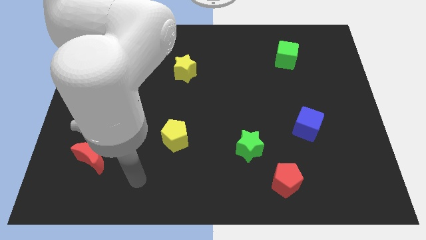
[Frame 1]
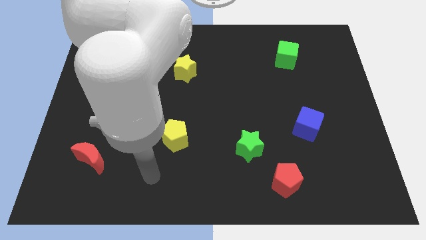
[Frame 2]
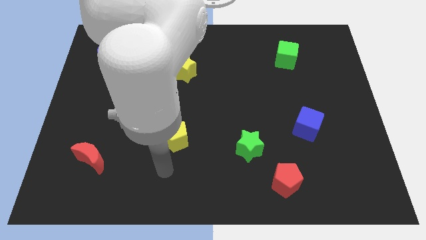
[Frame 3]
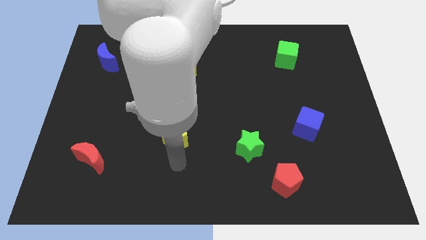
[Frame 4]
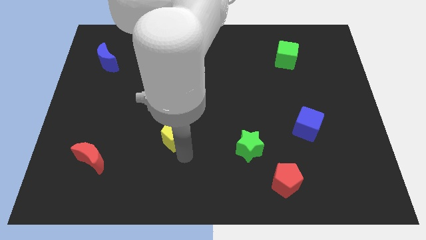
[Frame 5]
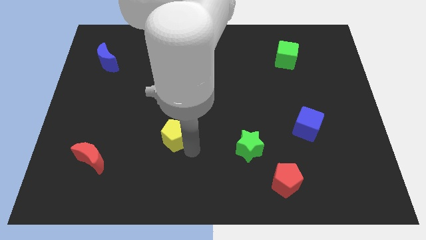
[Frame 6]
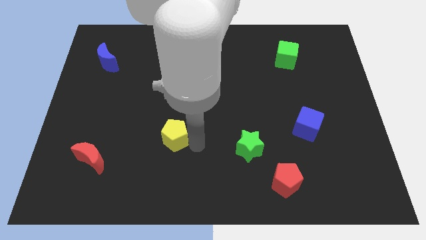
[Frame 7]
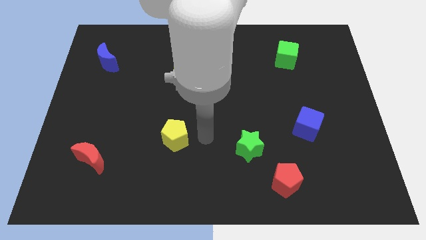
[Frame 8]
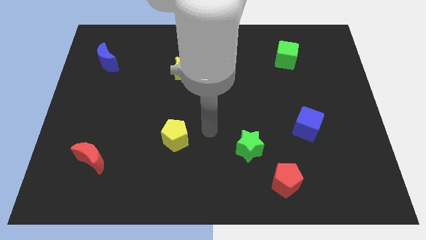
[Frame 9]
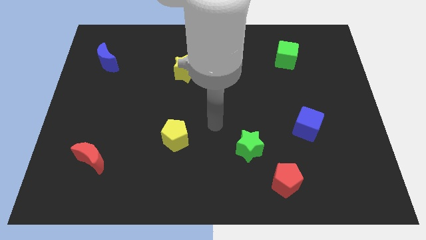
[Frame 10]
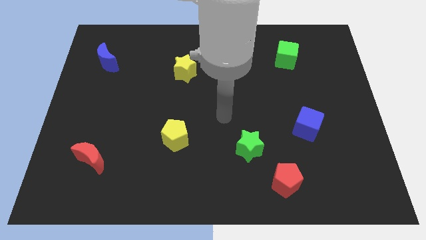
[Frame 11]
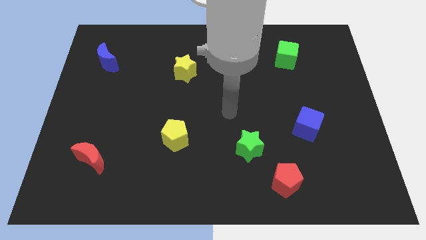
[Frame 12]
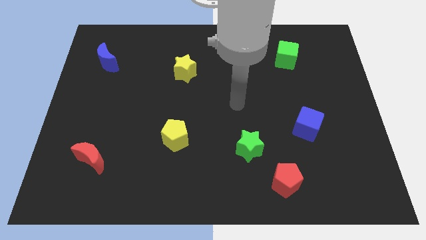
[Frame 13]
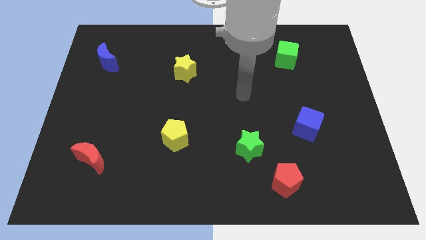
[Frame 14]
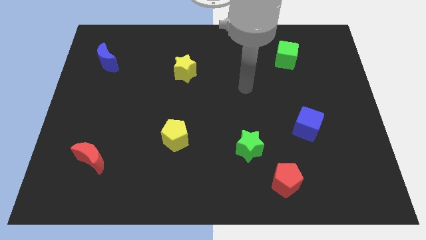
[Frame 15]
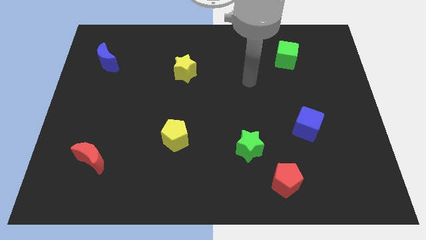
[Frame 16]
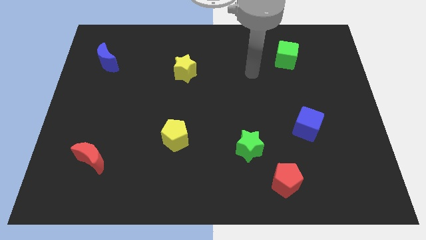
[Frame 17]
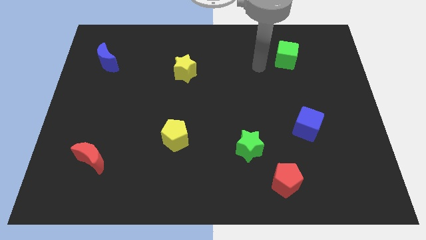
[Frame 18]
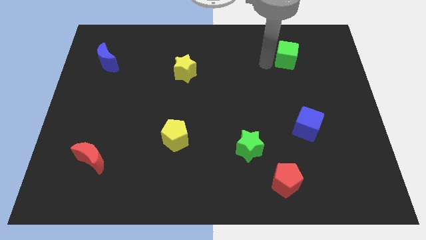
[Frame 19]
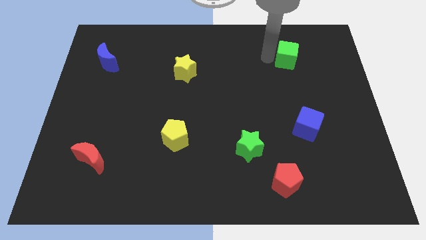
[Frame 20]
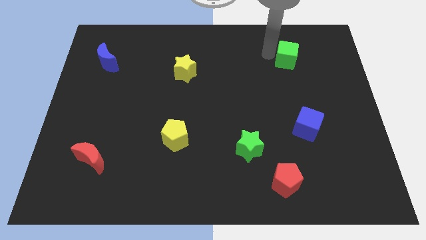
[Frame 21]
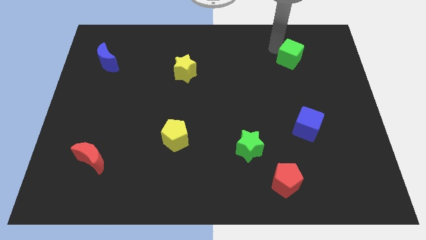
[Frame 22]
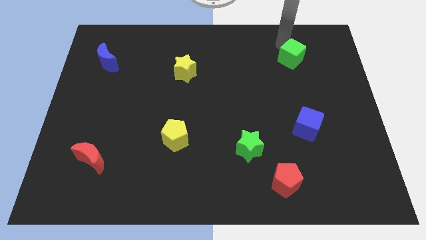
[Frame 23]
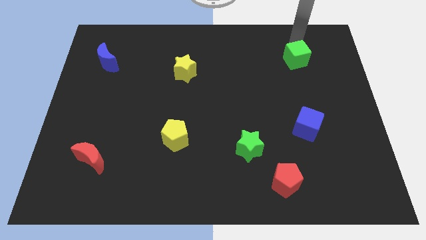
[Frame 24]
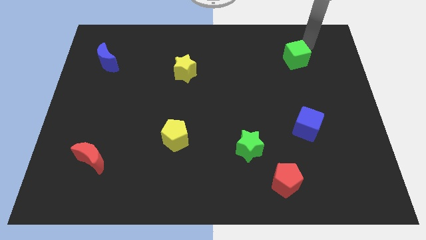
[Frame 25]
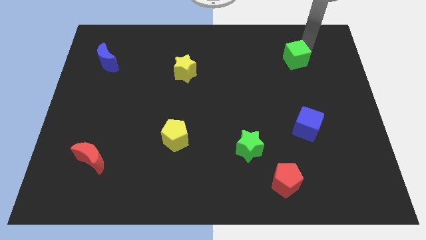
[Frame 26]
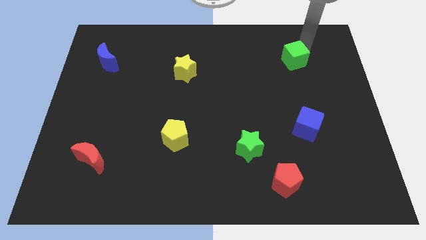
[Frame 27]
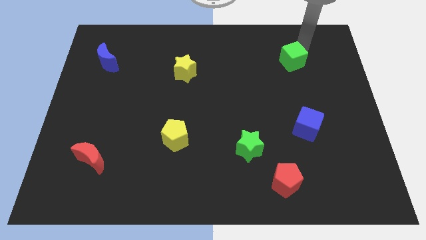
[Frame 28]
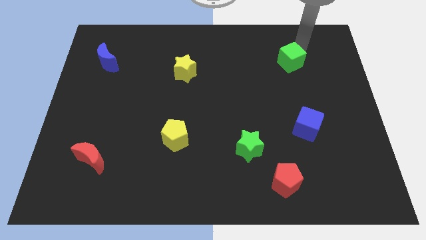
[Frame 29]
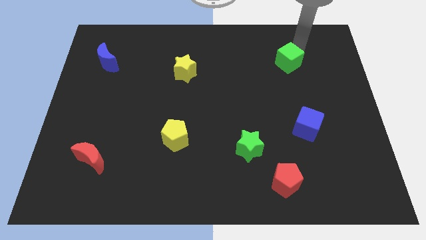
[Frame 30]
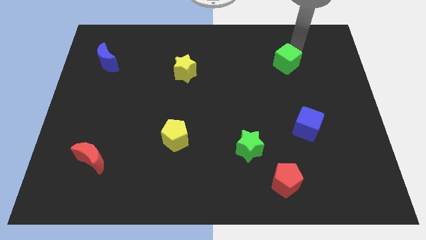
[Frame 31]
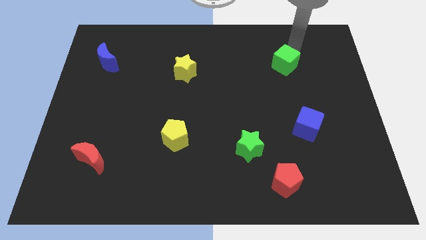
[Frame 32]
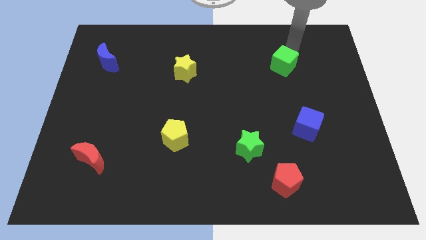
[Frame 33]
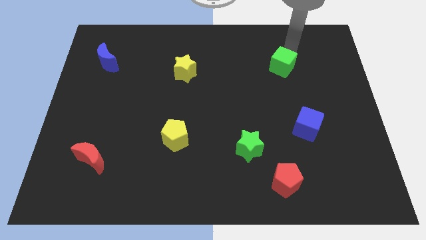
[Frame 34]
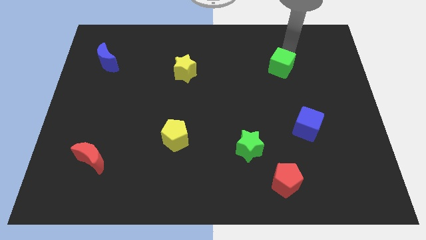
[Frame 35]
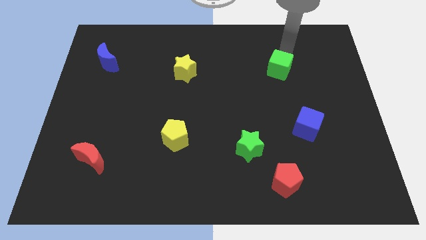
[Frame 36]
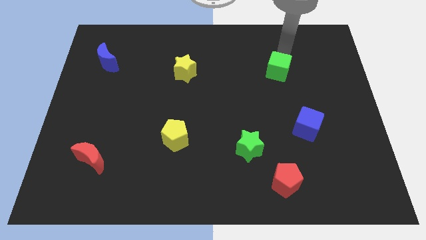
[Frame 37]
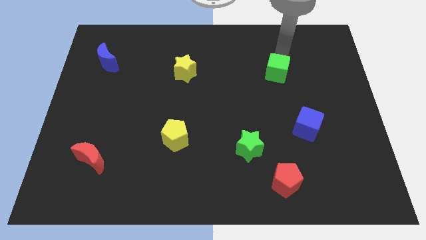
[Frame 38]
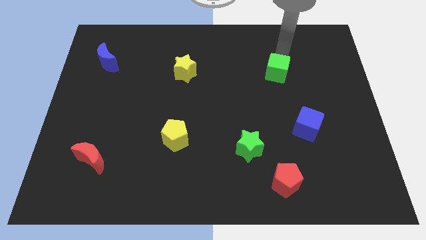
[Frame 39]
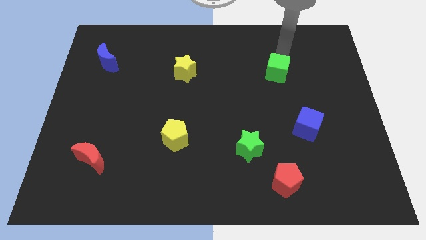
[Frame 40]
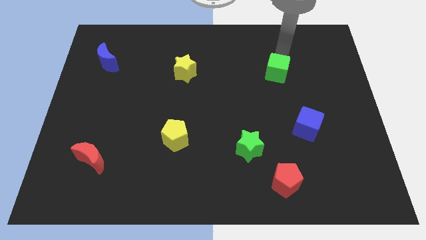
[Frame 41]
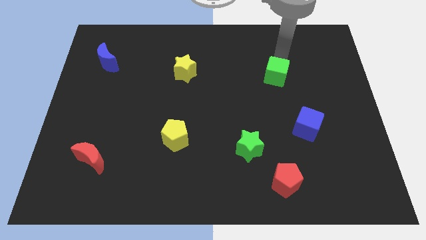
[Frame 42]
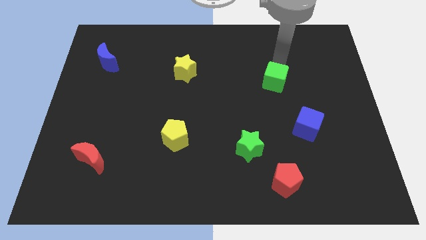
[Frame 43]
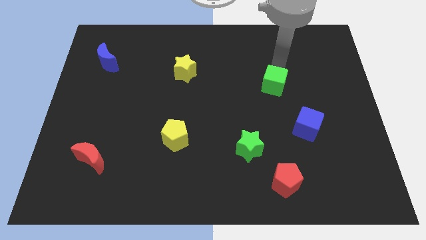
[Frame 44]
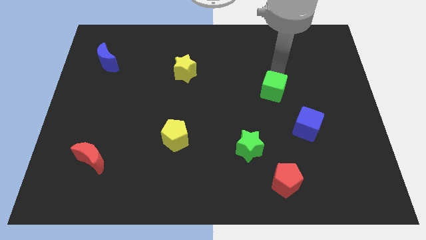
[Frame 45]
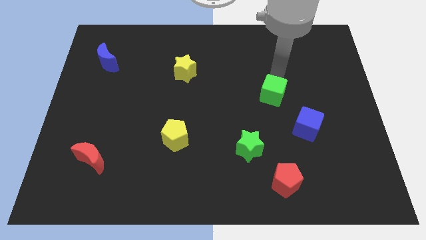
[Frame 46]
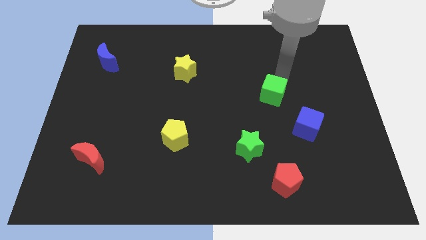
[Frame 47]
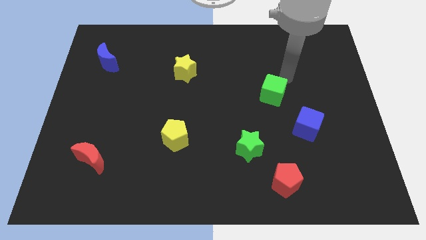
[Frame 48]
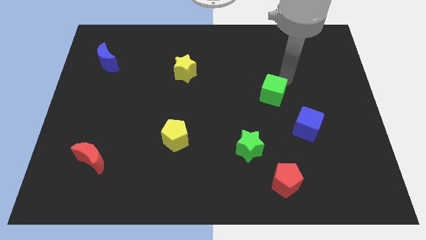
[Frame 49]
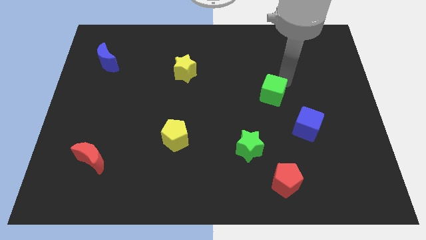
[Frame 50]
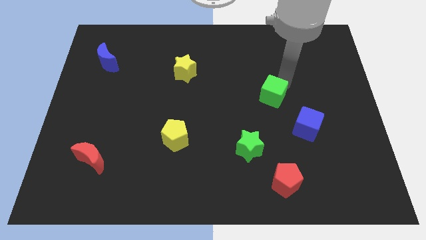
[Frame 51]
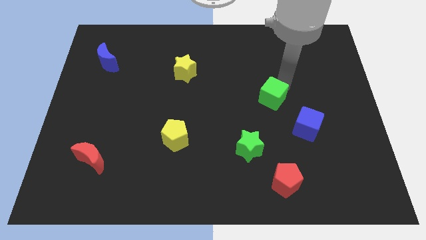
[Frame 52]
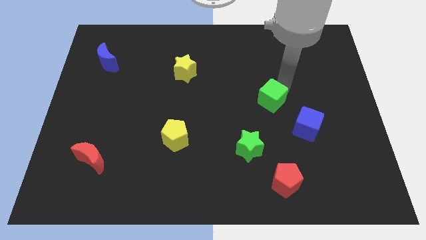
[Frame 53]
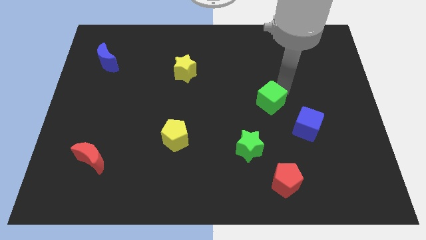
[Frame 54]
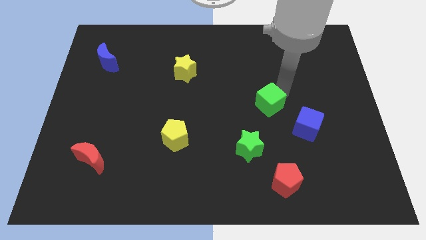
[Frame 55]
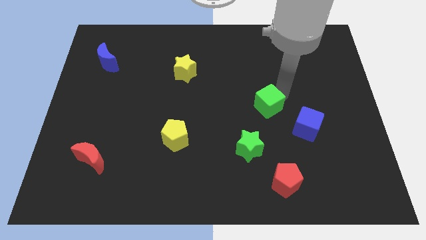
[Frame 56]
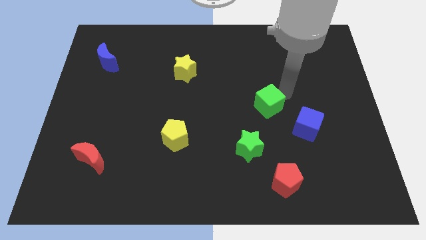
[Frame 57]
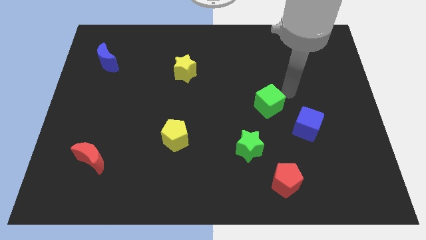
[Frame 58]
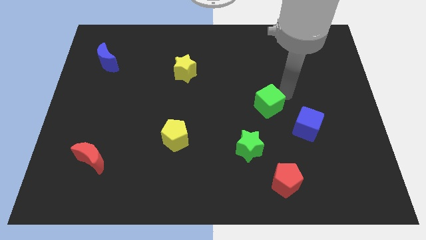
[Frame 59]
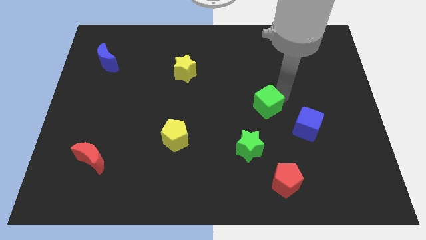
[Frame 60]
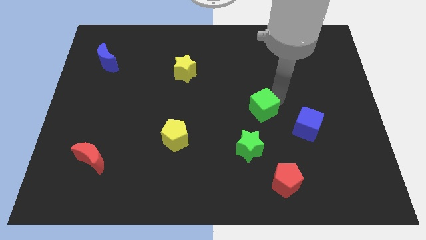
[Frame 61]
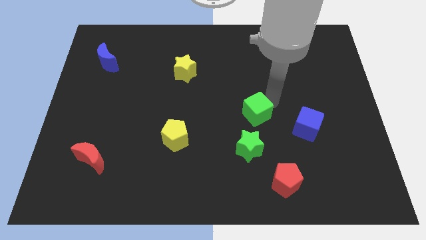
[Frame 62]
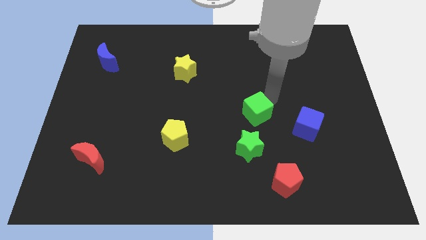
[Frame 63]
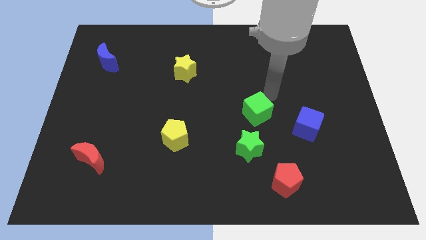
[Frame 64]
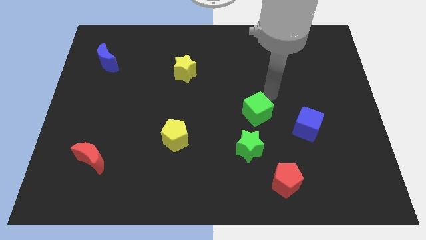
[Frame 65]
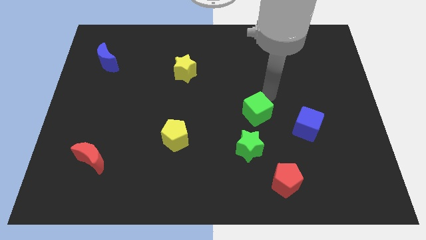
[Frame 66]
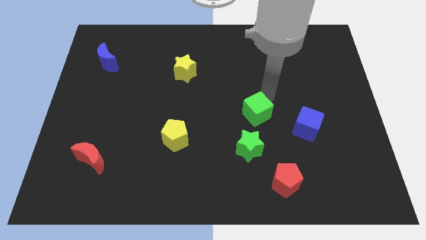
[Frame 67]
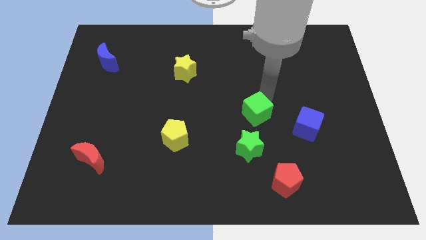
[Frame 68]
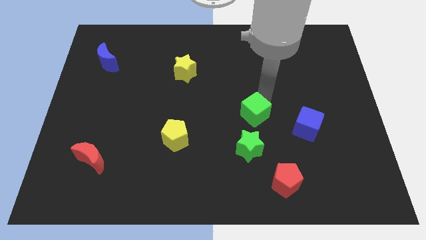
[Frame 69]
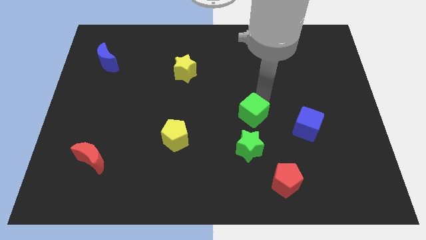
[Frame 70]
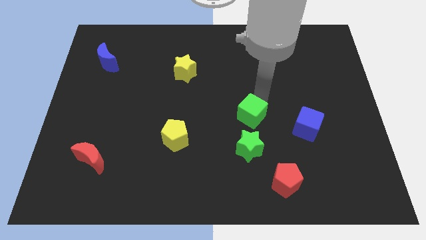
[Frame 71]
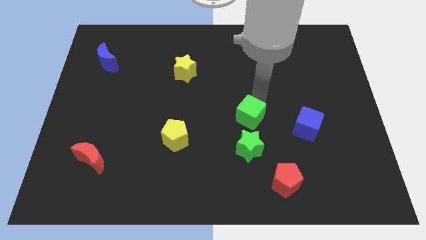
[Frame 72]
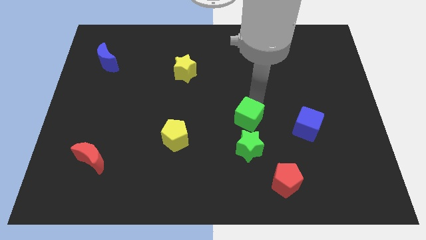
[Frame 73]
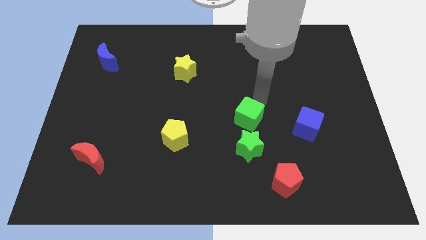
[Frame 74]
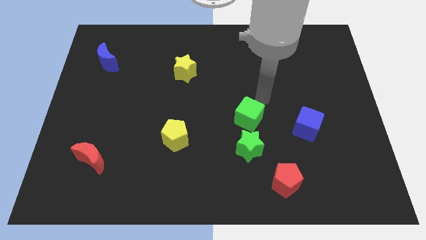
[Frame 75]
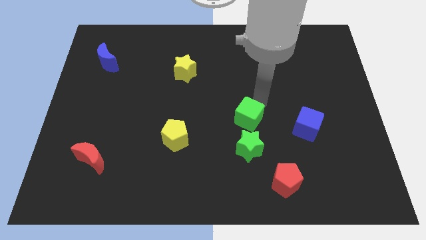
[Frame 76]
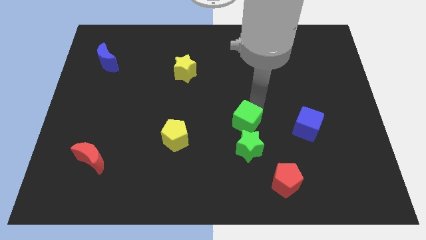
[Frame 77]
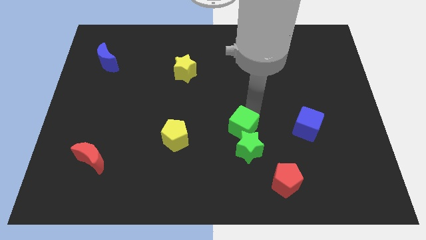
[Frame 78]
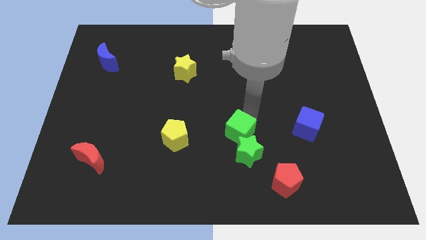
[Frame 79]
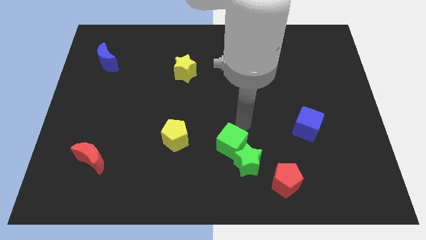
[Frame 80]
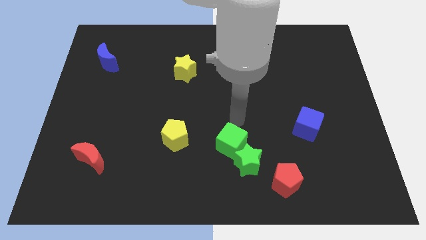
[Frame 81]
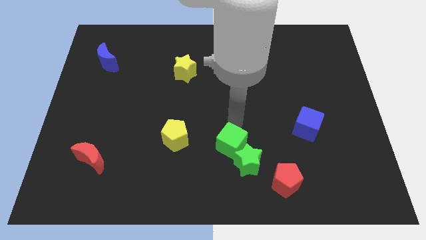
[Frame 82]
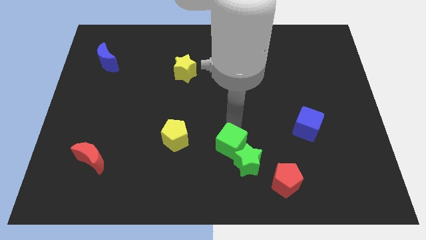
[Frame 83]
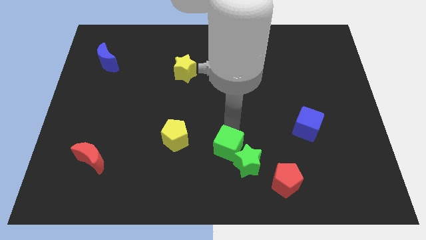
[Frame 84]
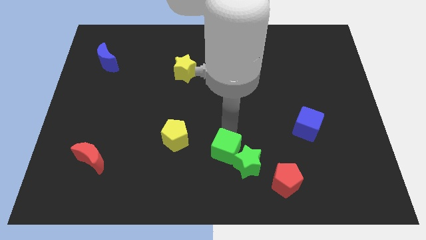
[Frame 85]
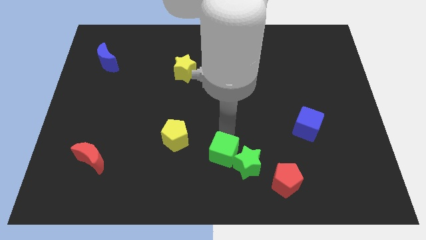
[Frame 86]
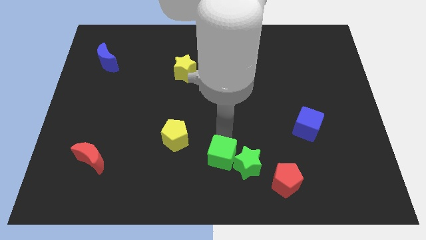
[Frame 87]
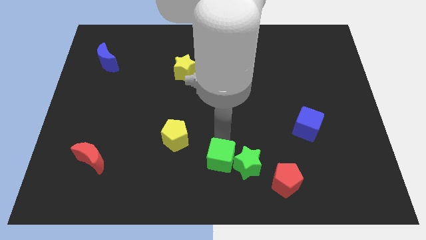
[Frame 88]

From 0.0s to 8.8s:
move the green cube diagonally down and to the left of the green star
